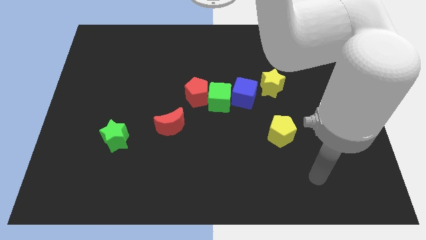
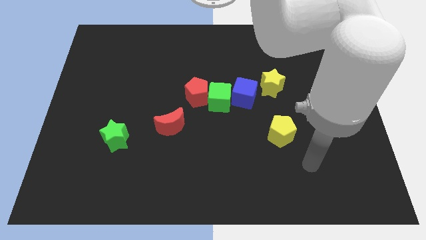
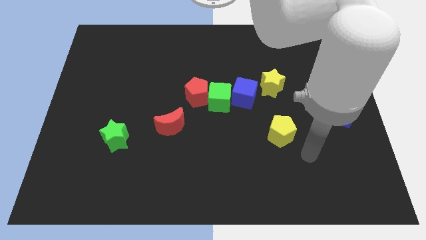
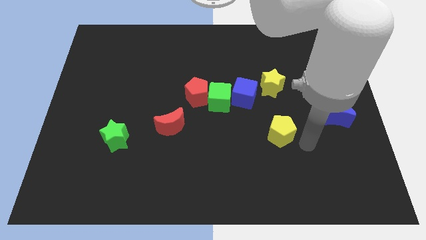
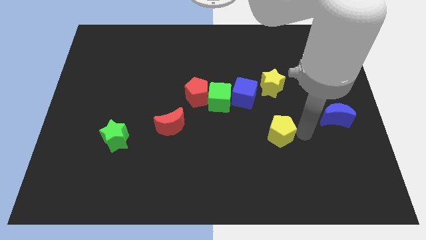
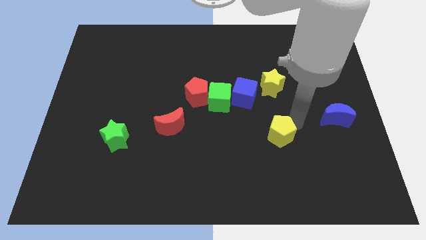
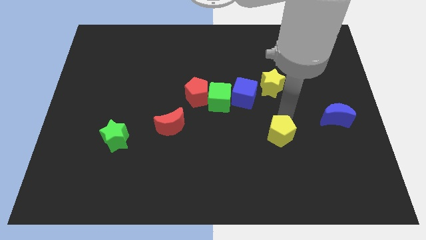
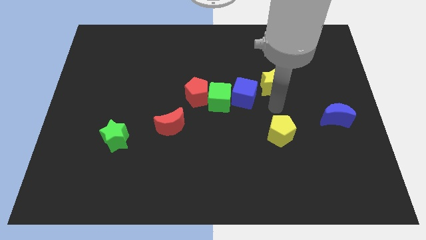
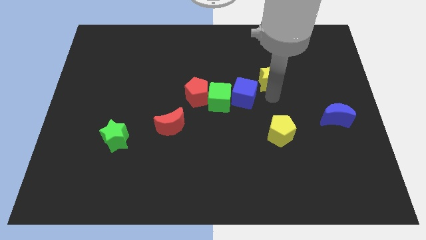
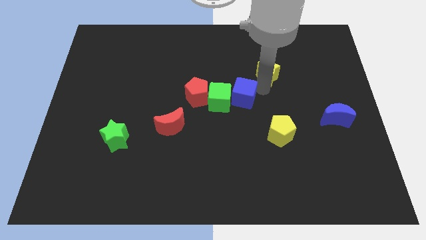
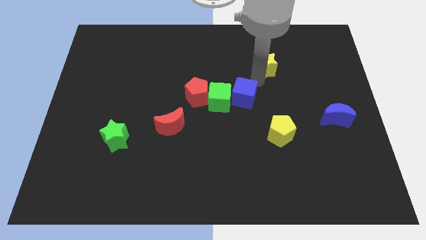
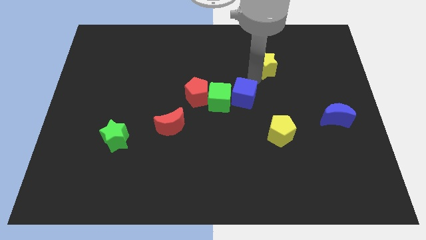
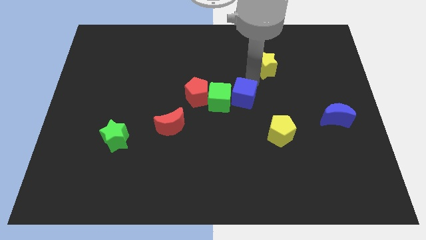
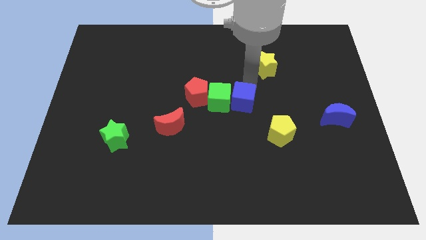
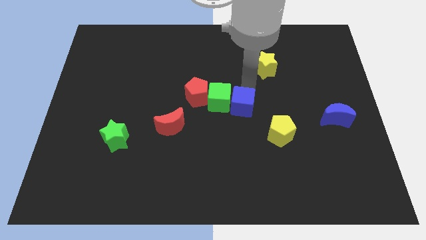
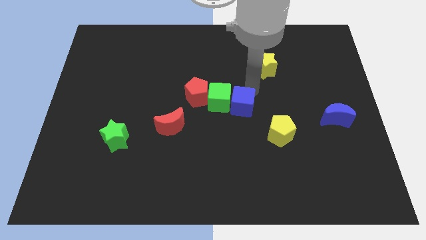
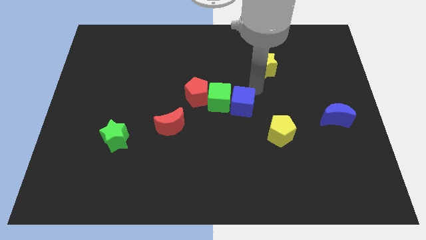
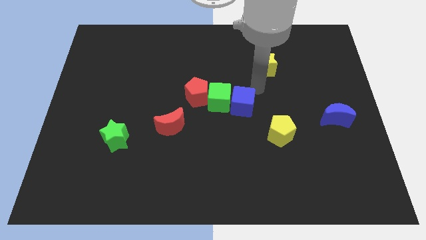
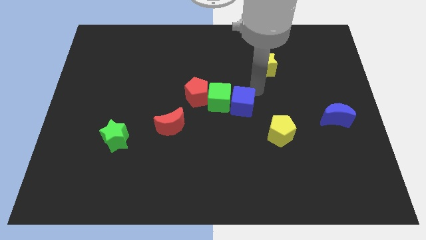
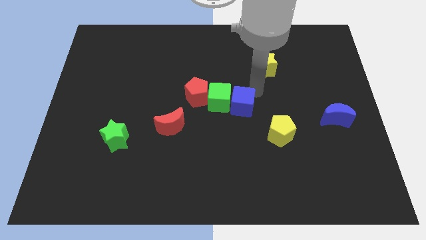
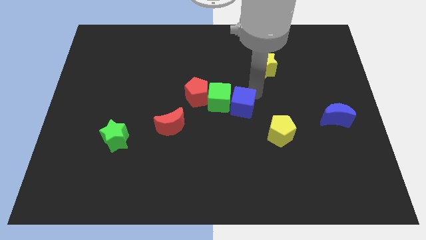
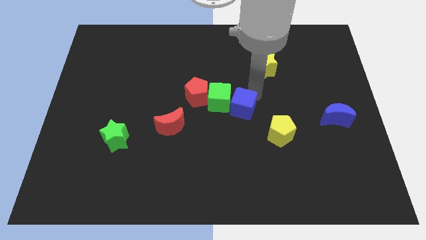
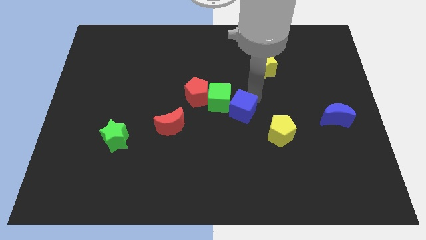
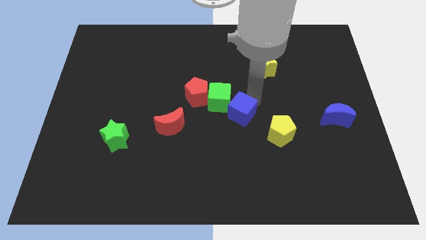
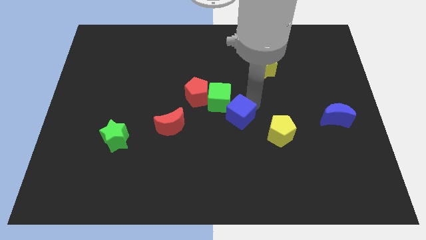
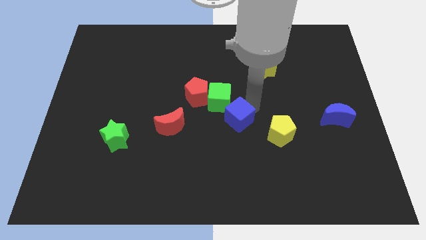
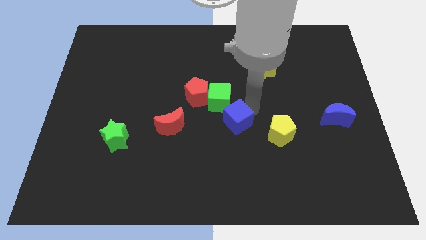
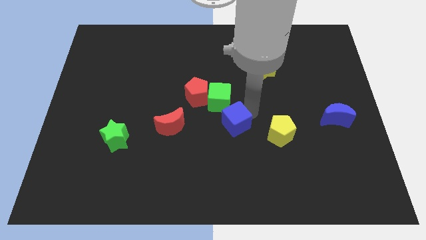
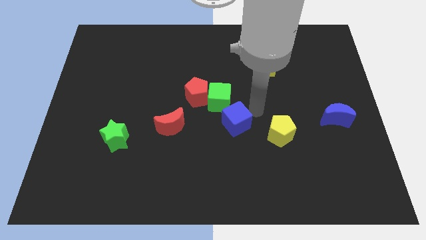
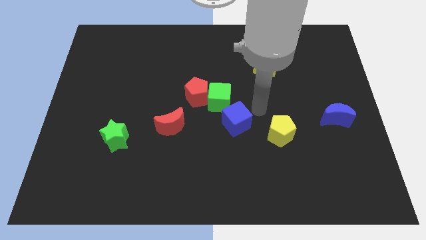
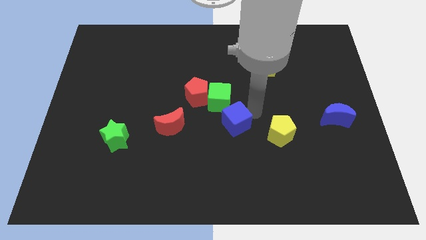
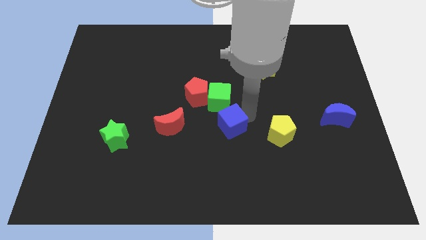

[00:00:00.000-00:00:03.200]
slide the blue cube downwards and left a bit

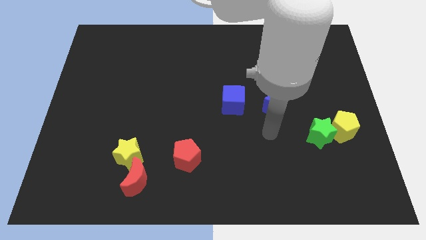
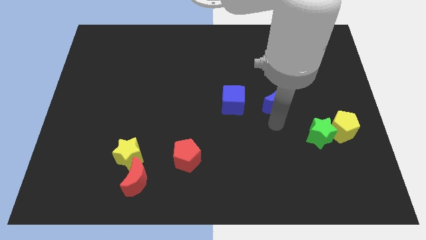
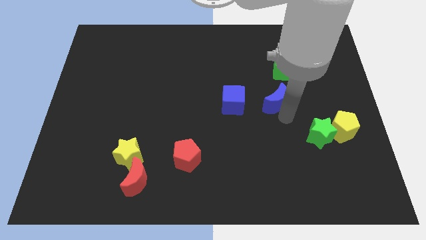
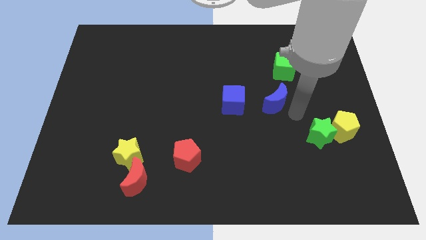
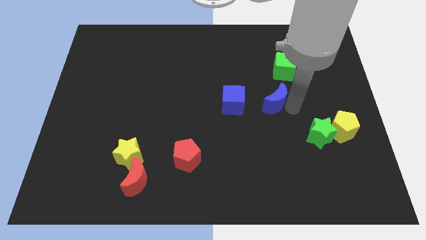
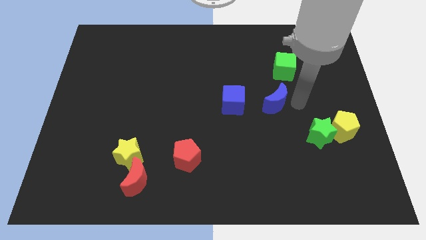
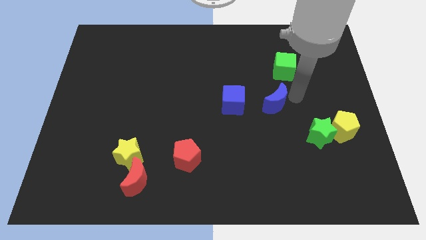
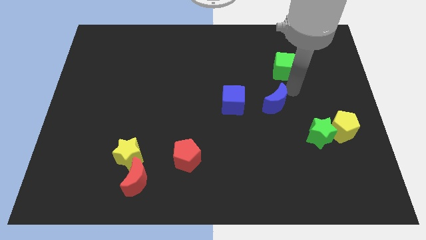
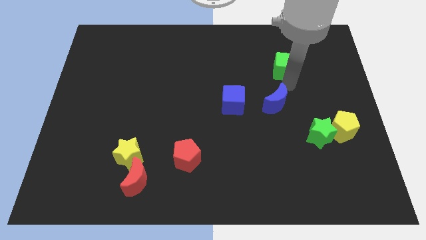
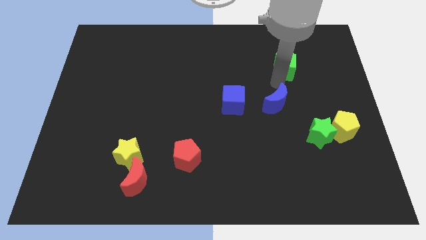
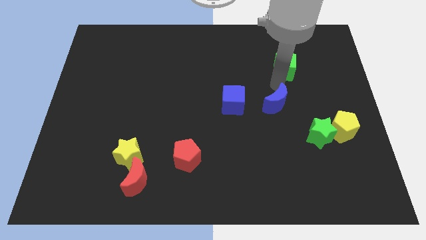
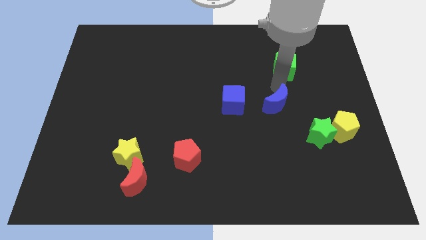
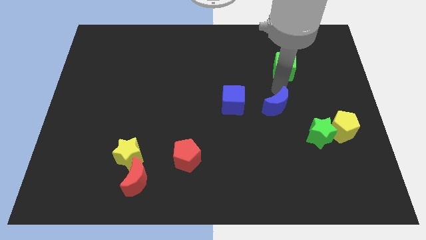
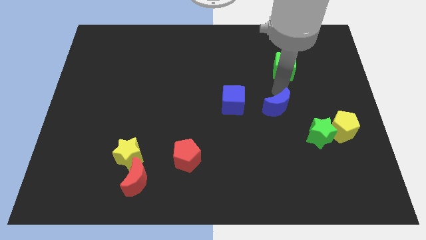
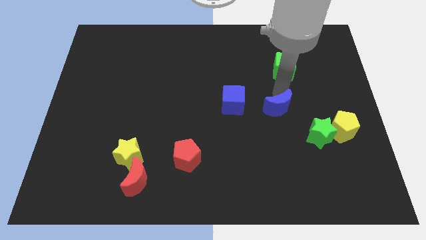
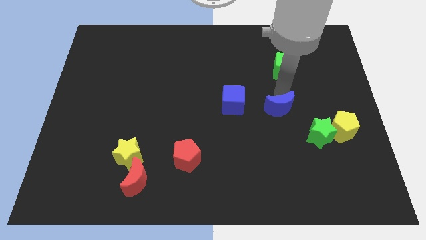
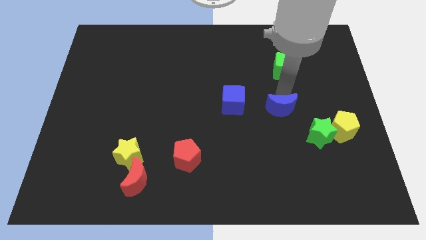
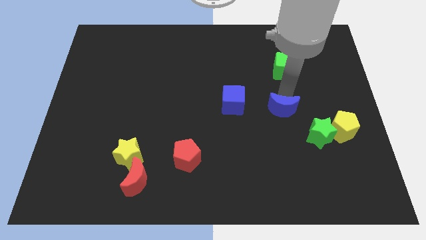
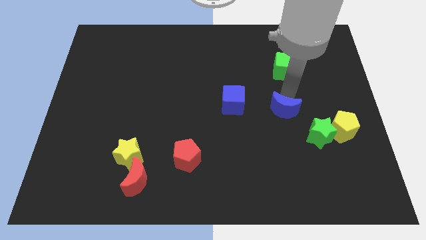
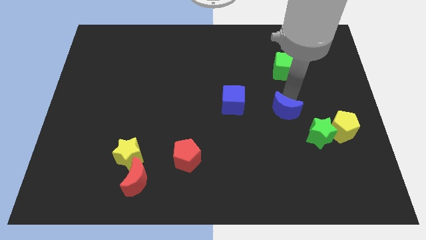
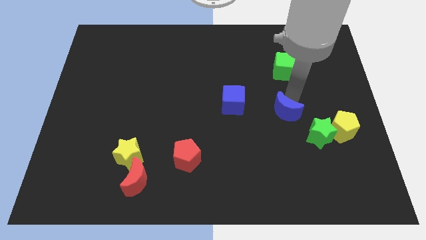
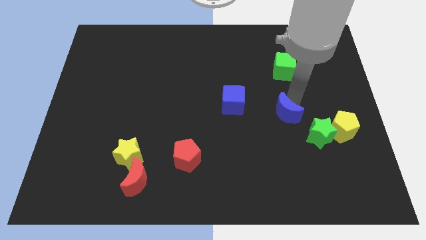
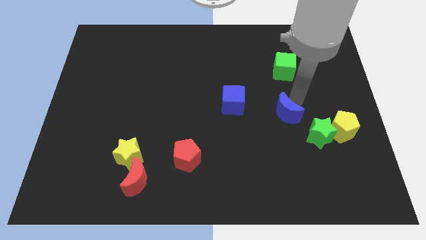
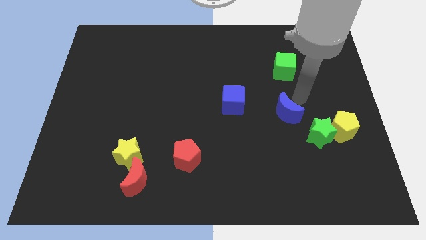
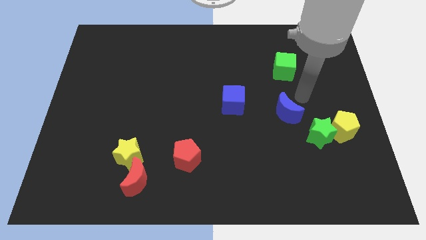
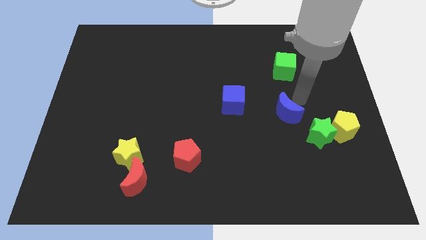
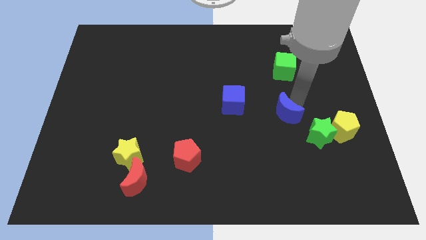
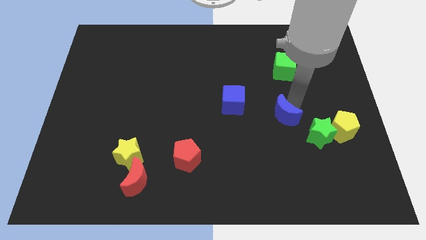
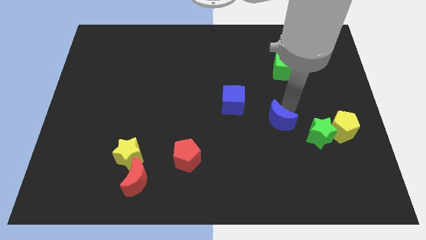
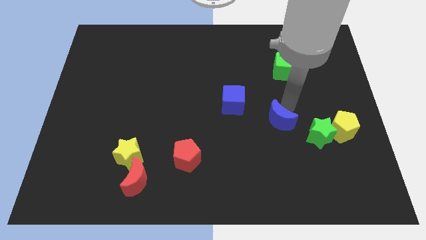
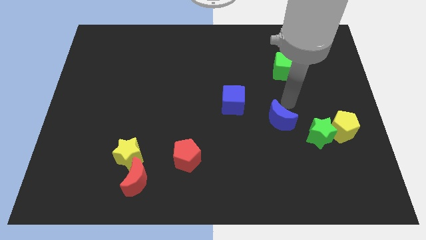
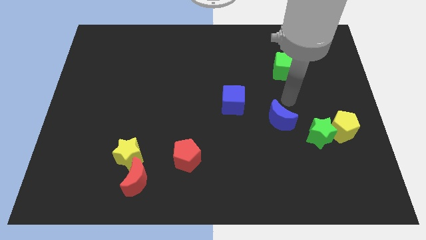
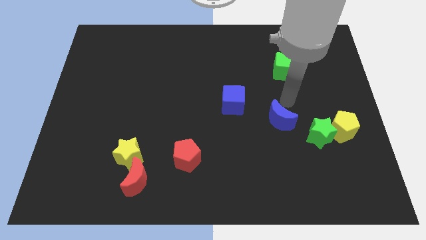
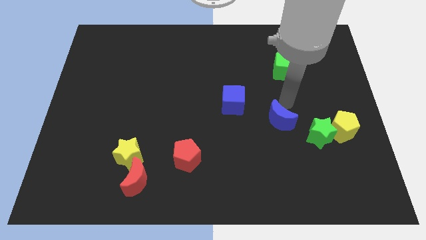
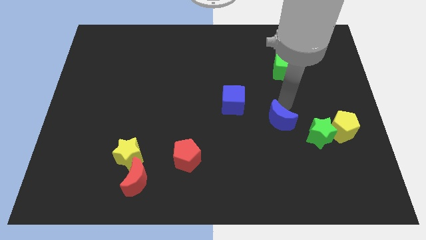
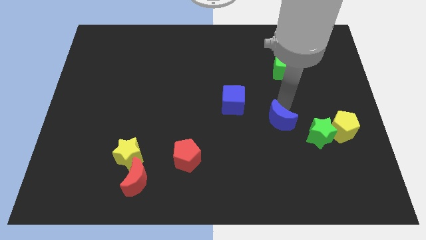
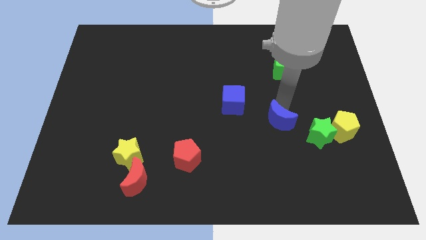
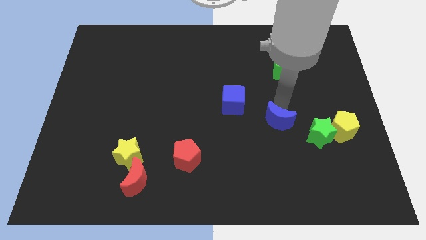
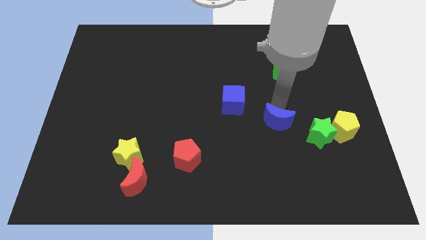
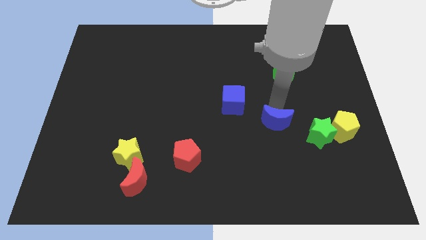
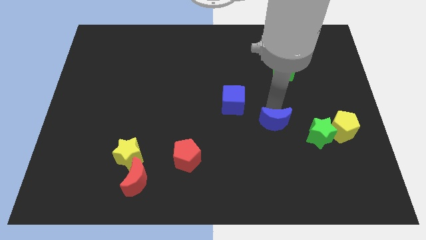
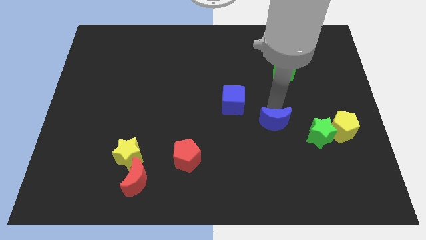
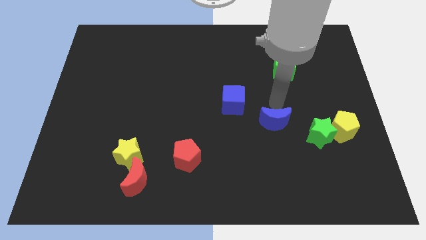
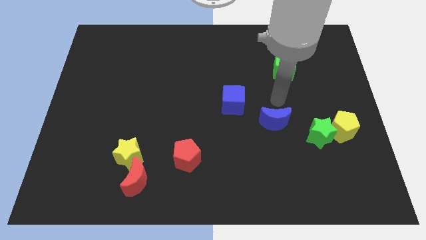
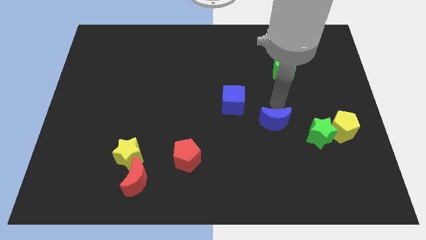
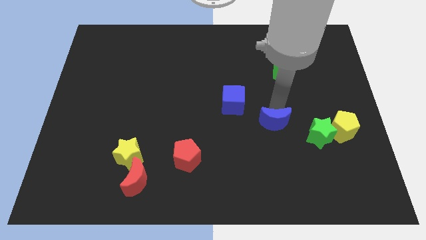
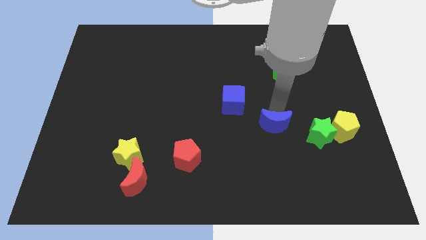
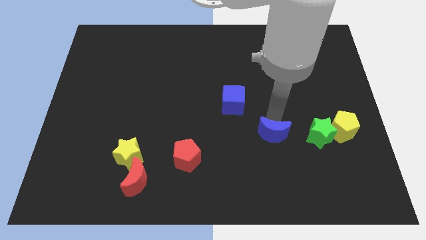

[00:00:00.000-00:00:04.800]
slightly move the blue moon downwards

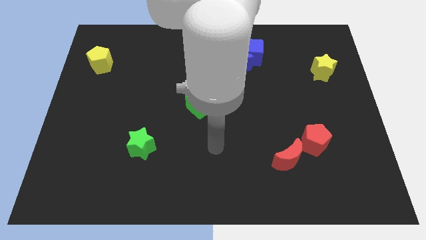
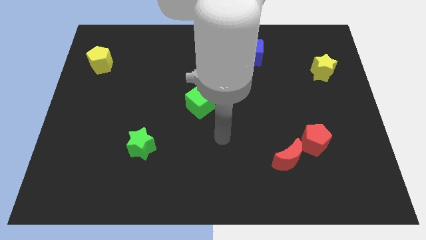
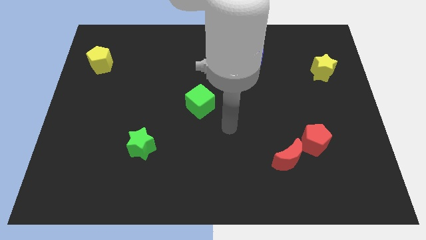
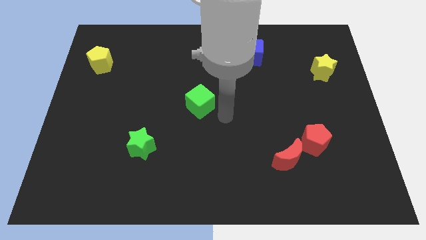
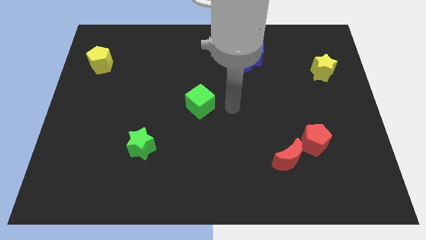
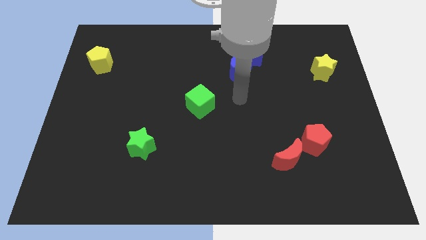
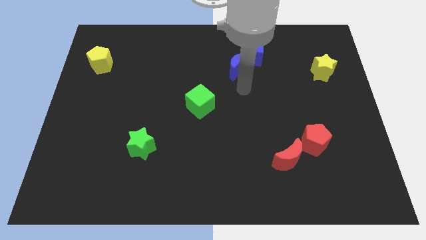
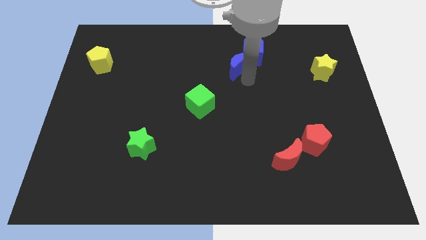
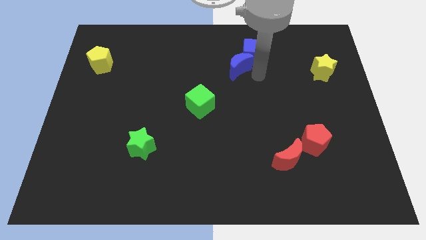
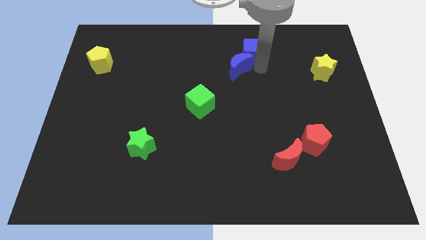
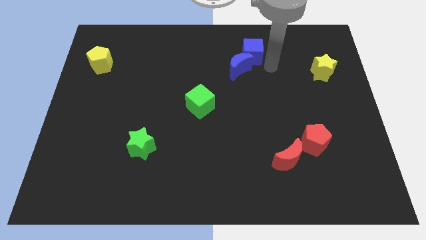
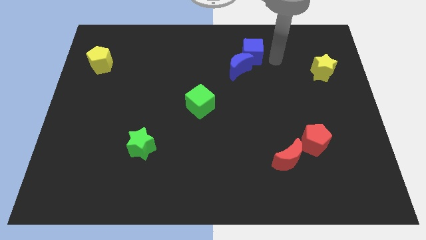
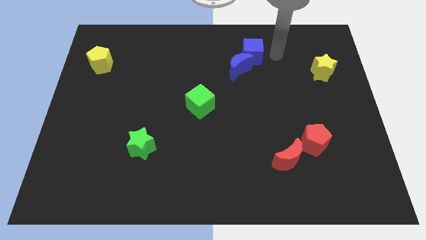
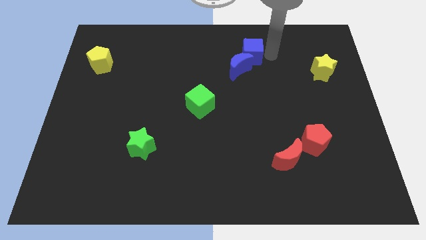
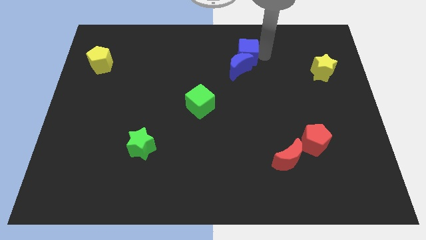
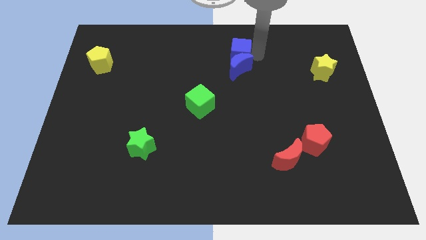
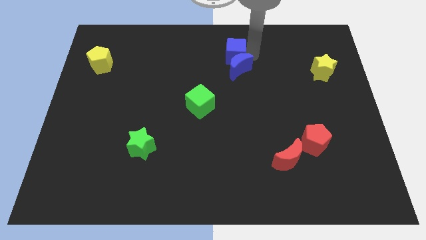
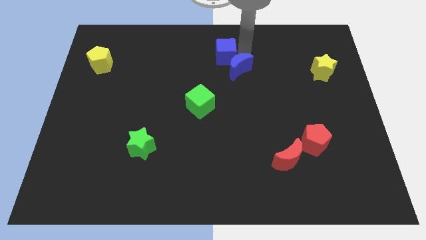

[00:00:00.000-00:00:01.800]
slide the blue cube to the left a little bit
